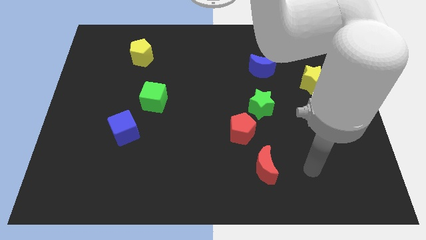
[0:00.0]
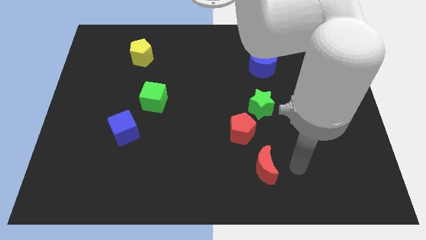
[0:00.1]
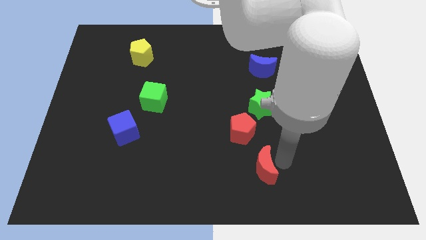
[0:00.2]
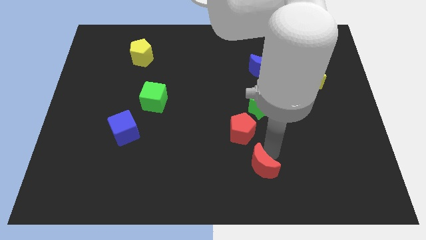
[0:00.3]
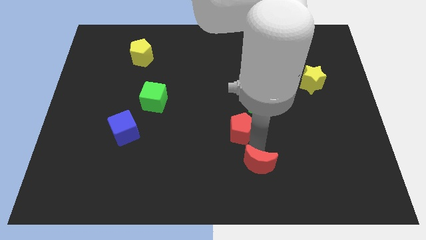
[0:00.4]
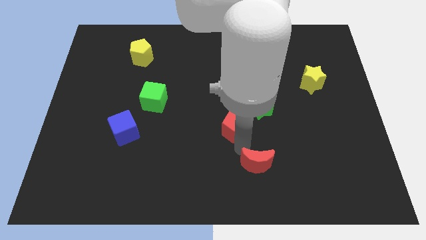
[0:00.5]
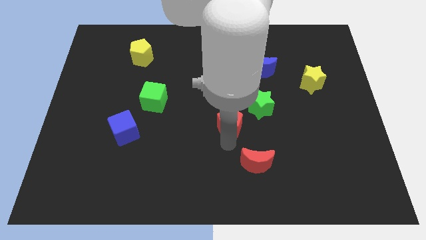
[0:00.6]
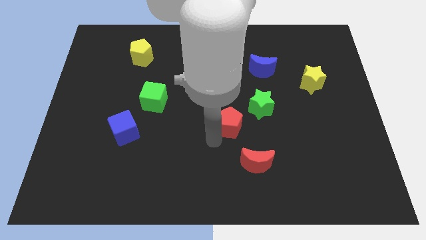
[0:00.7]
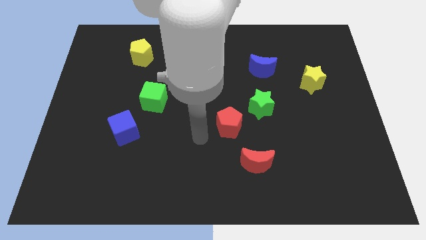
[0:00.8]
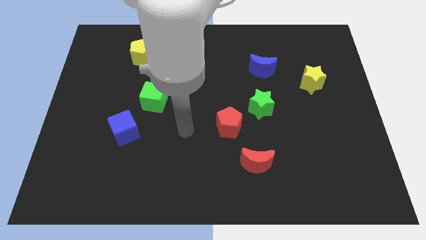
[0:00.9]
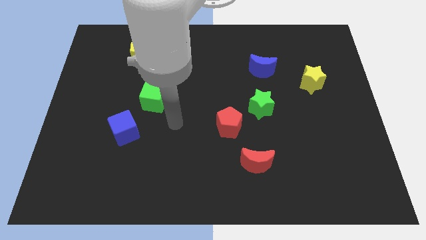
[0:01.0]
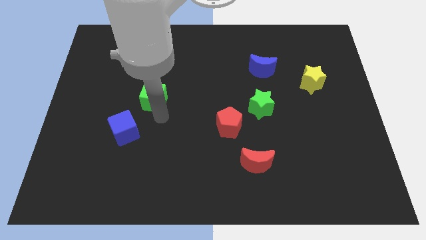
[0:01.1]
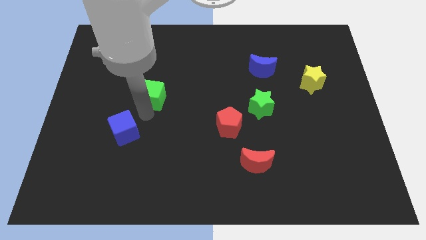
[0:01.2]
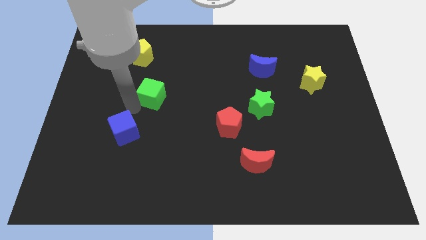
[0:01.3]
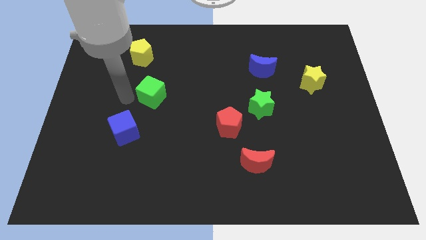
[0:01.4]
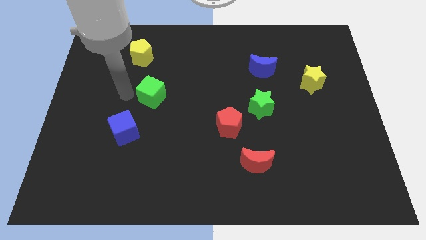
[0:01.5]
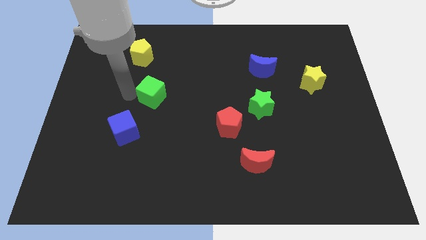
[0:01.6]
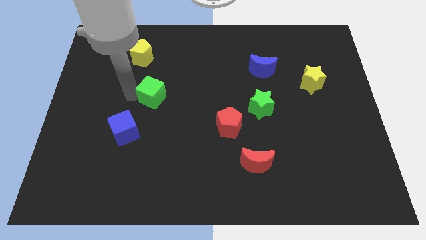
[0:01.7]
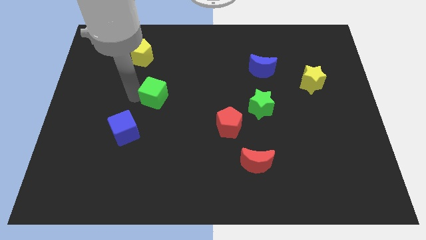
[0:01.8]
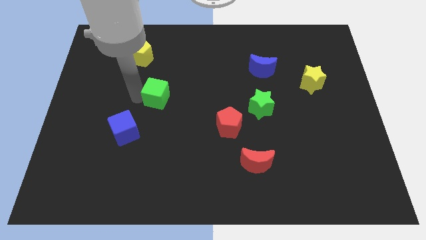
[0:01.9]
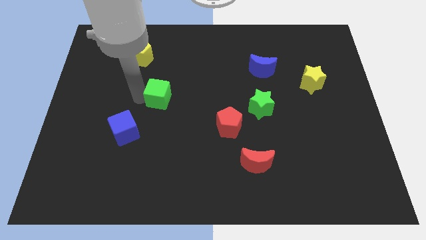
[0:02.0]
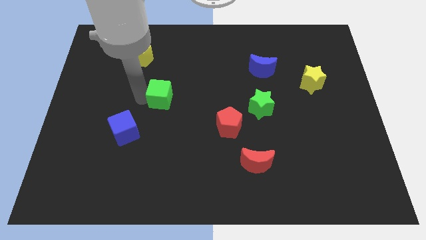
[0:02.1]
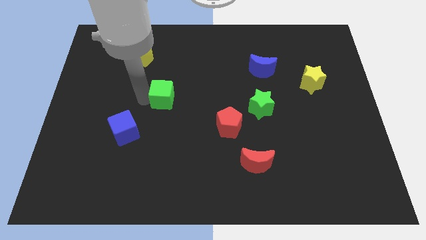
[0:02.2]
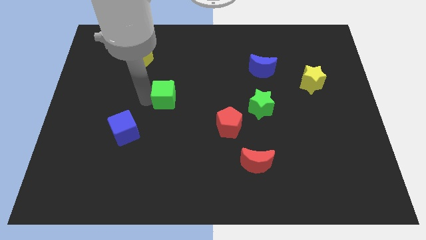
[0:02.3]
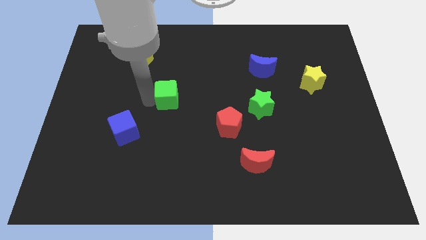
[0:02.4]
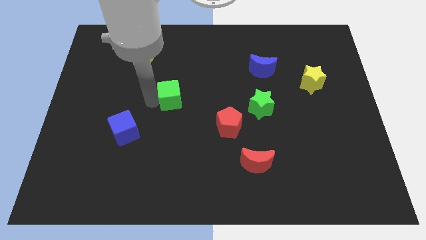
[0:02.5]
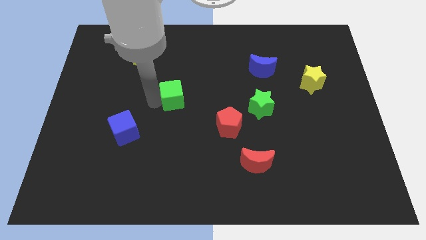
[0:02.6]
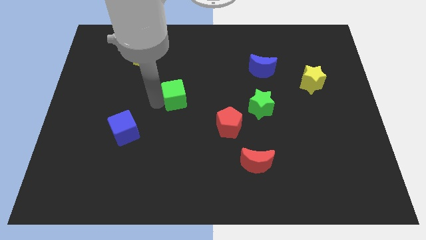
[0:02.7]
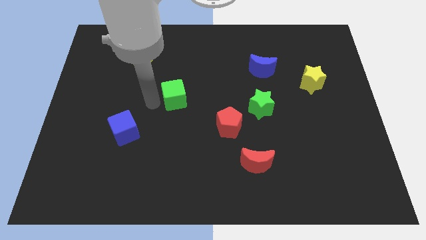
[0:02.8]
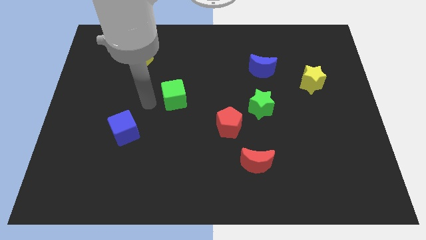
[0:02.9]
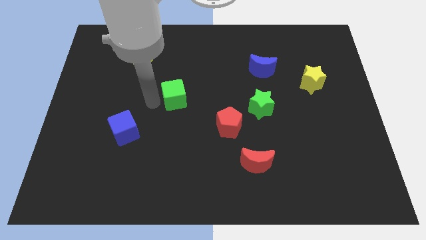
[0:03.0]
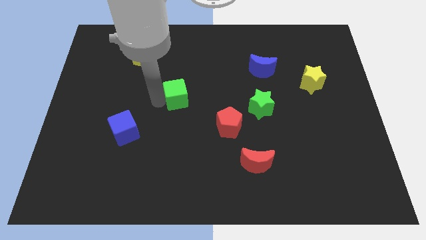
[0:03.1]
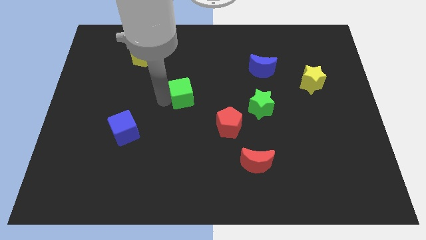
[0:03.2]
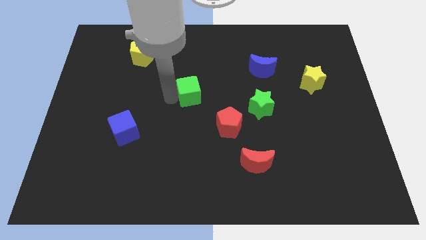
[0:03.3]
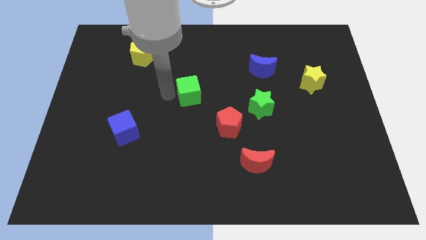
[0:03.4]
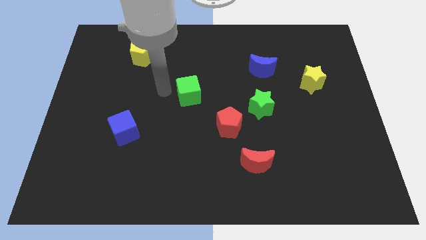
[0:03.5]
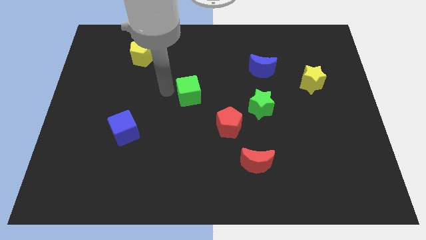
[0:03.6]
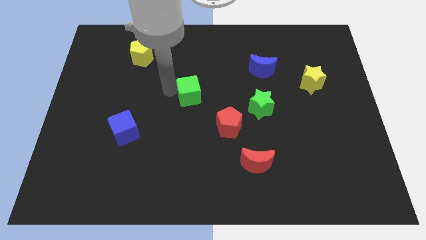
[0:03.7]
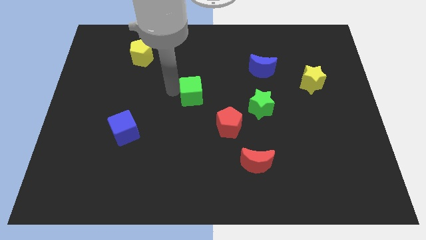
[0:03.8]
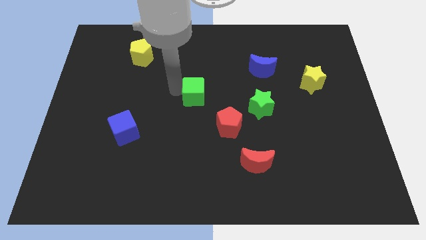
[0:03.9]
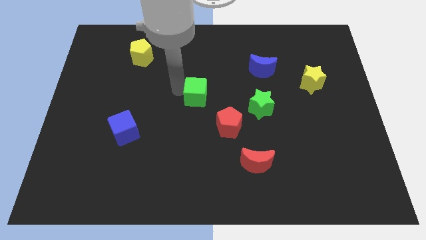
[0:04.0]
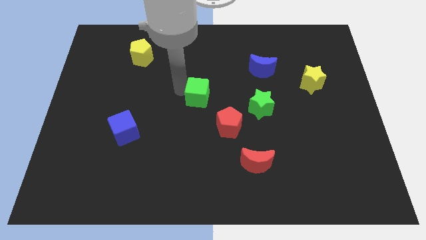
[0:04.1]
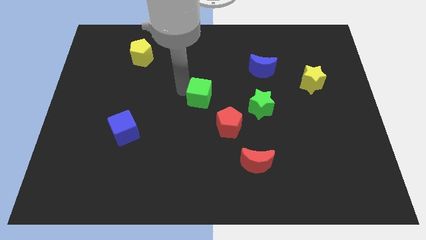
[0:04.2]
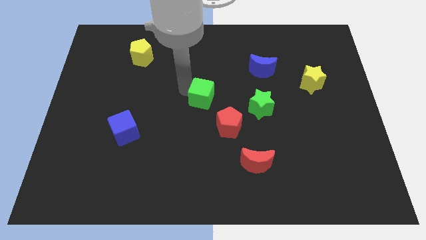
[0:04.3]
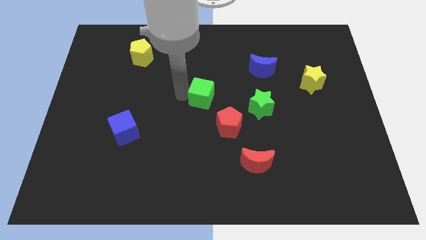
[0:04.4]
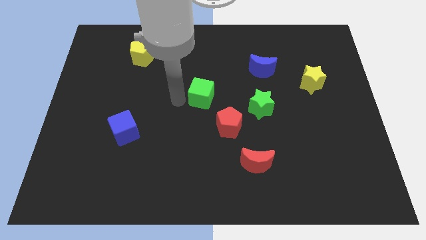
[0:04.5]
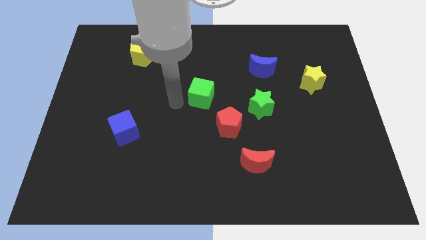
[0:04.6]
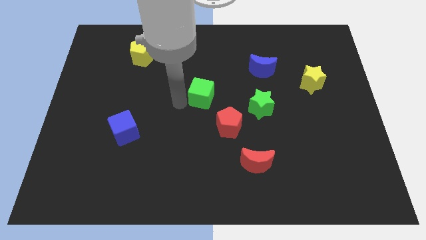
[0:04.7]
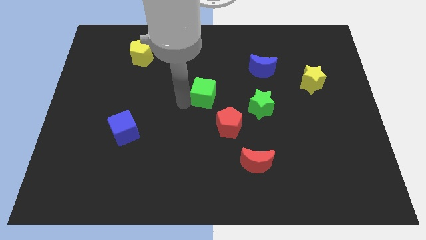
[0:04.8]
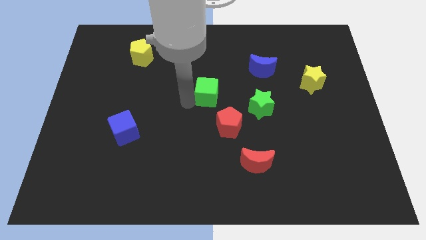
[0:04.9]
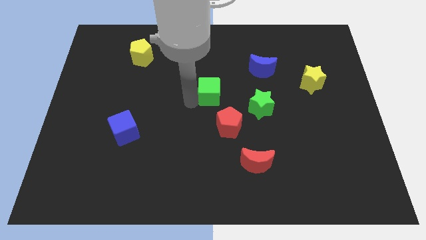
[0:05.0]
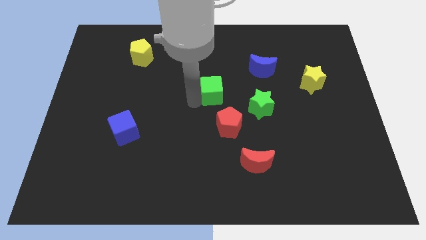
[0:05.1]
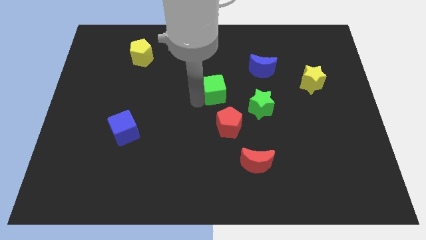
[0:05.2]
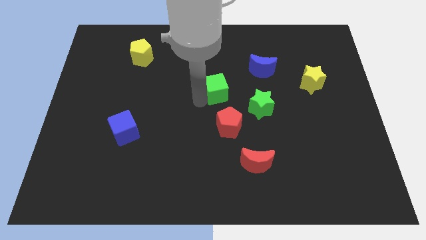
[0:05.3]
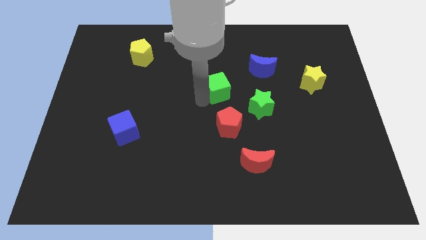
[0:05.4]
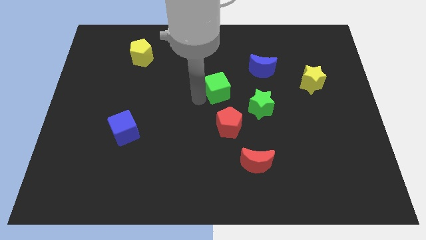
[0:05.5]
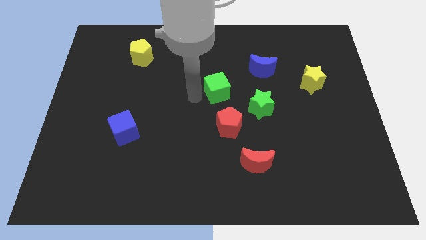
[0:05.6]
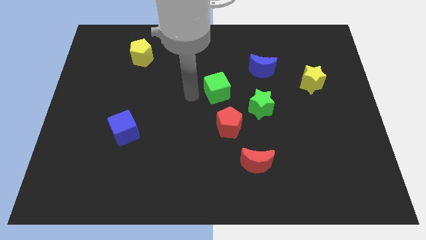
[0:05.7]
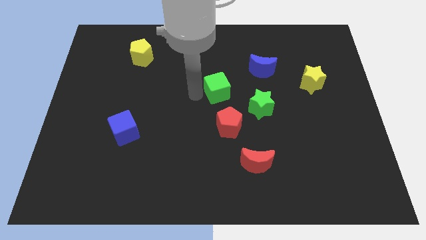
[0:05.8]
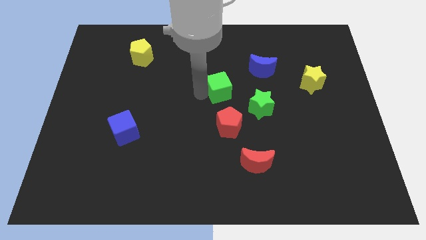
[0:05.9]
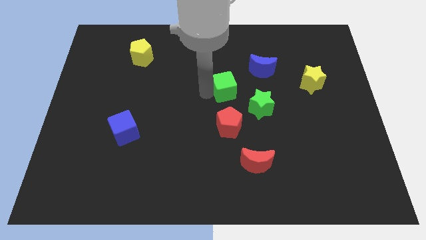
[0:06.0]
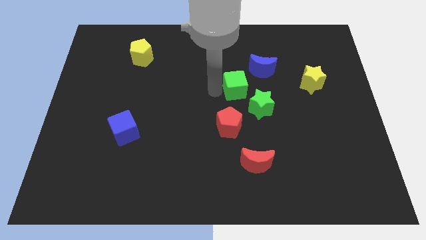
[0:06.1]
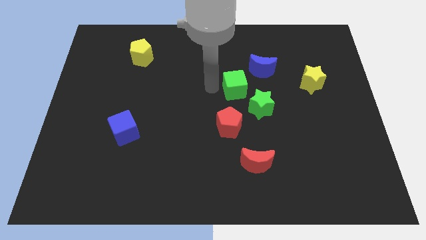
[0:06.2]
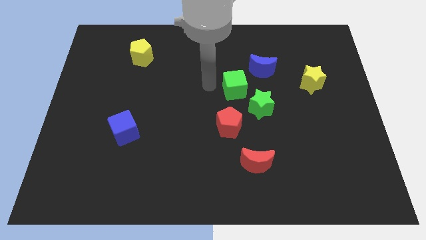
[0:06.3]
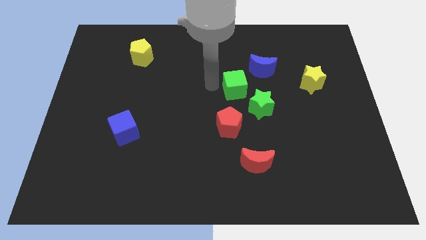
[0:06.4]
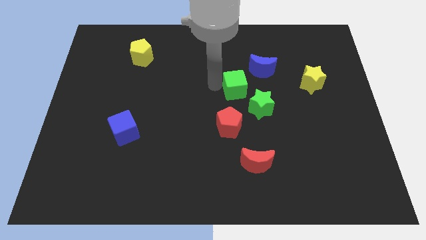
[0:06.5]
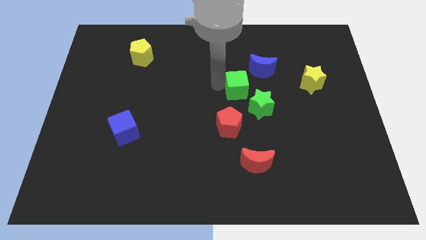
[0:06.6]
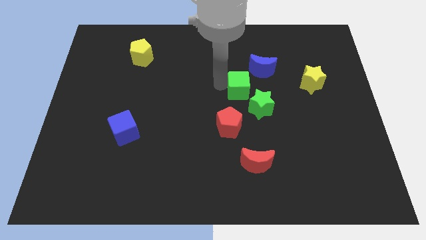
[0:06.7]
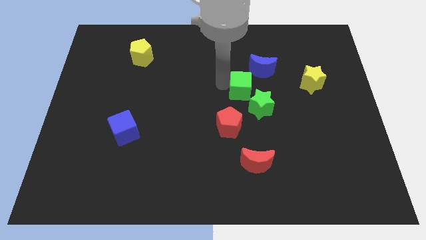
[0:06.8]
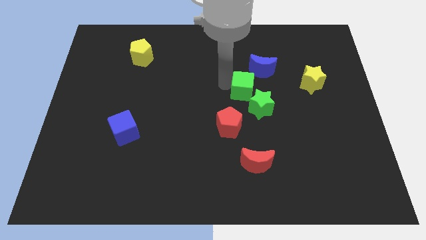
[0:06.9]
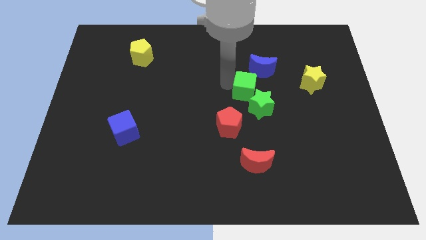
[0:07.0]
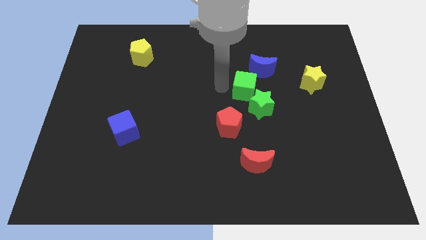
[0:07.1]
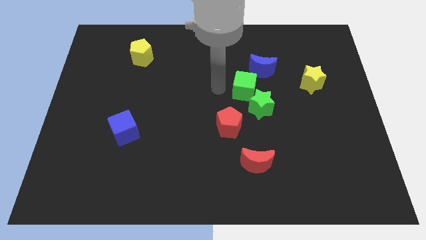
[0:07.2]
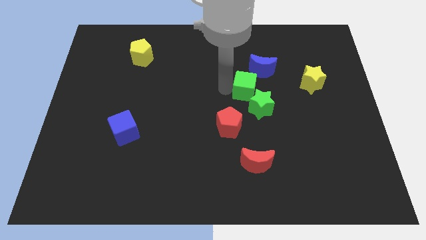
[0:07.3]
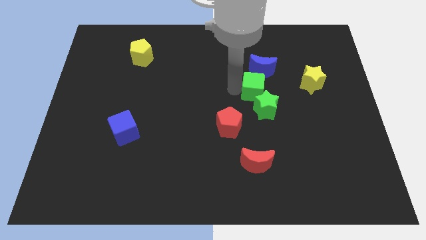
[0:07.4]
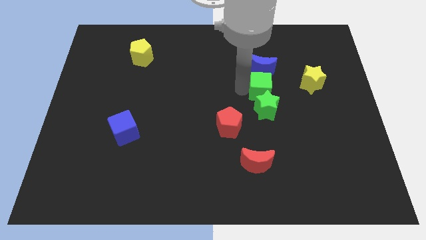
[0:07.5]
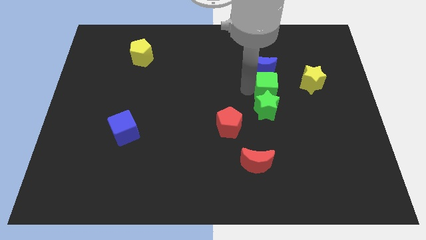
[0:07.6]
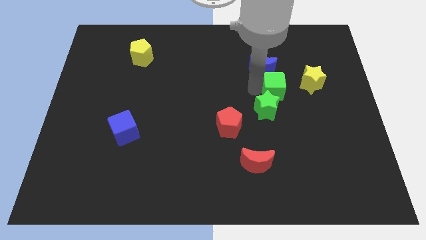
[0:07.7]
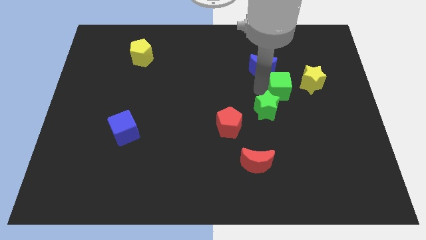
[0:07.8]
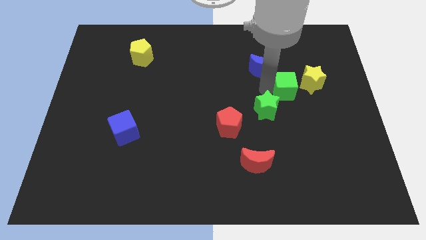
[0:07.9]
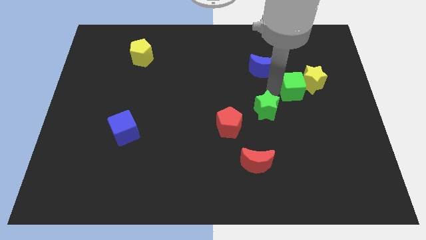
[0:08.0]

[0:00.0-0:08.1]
put the green cube to the yellow star
